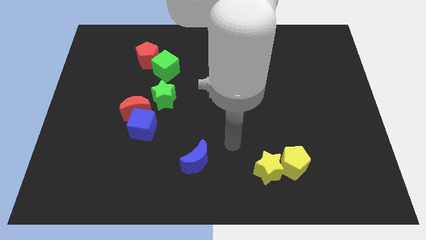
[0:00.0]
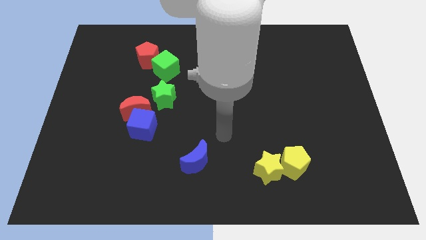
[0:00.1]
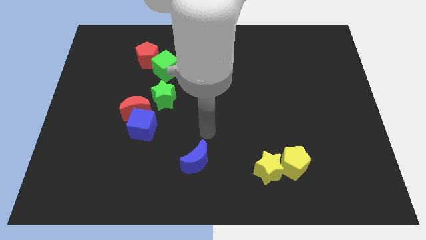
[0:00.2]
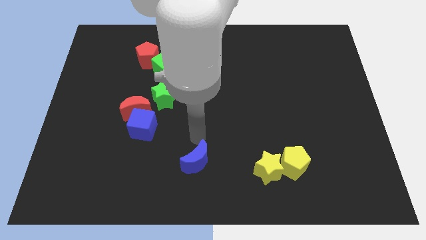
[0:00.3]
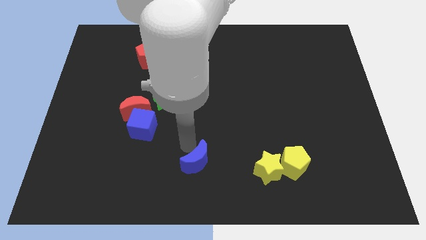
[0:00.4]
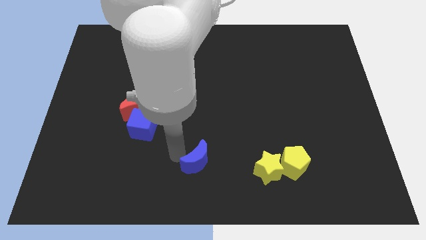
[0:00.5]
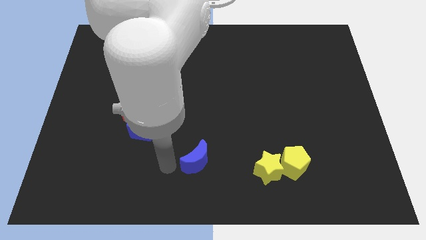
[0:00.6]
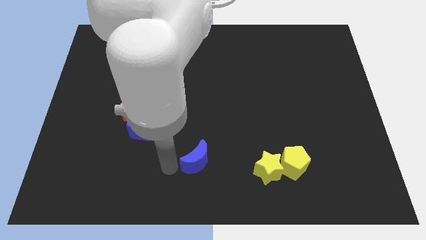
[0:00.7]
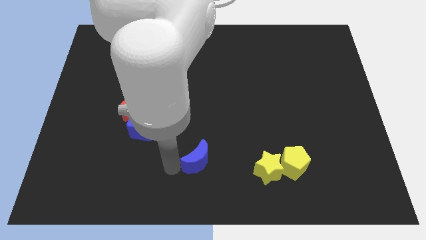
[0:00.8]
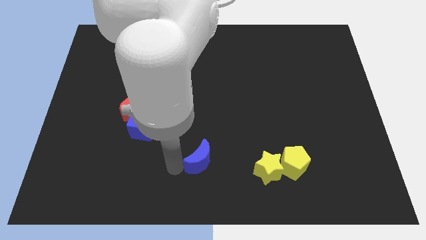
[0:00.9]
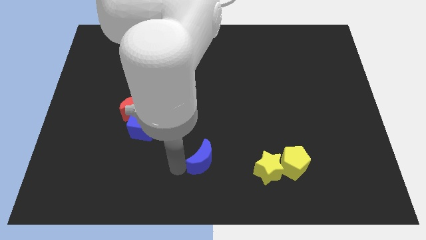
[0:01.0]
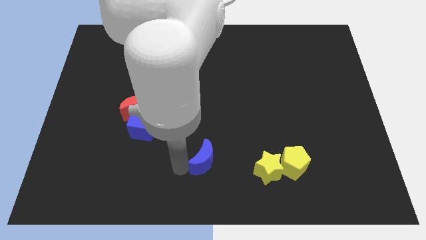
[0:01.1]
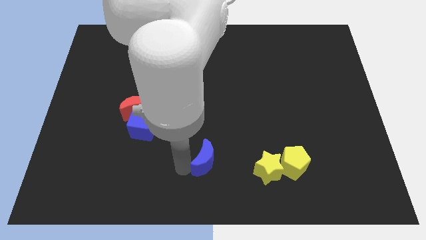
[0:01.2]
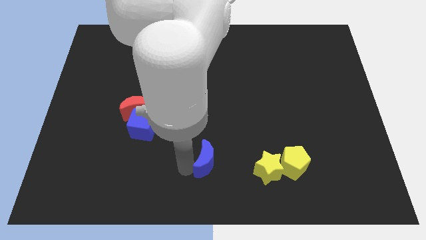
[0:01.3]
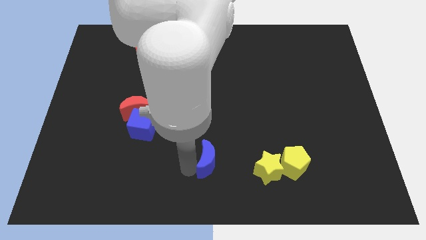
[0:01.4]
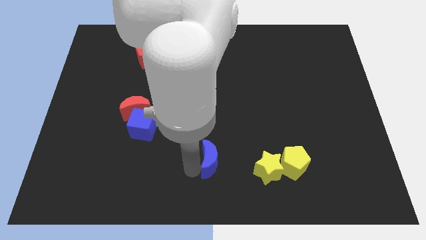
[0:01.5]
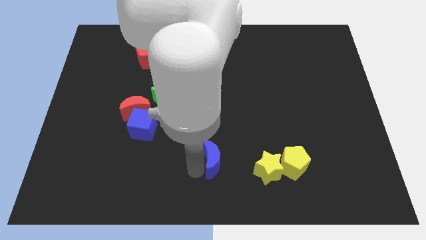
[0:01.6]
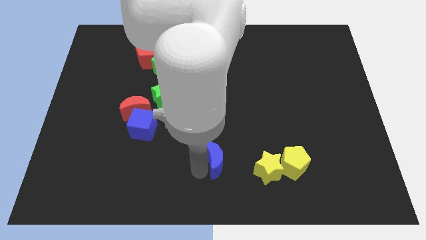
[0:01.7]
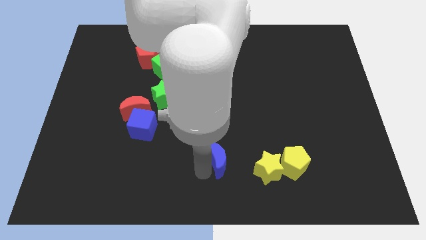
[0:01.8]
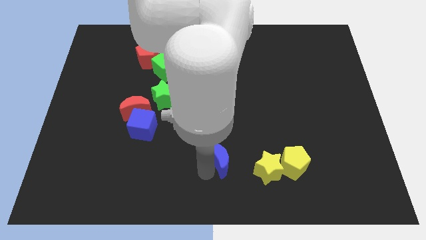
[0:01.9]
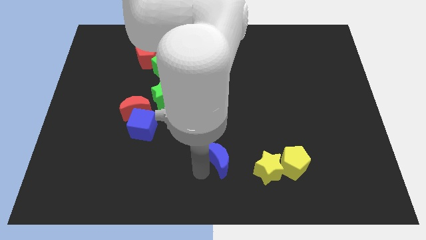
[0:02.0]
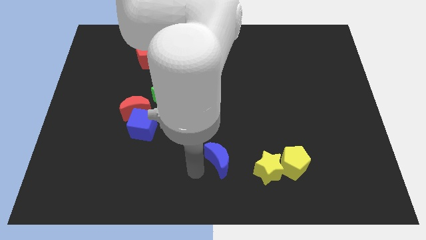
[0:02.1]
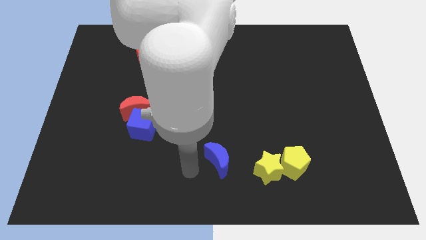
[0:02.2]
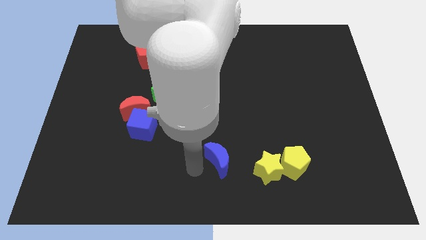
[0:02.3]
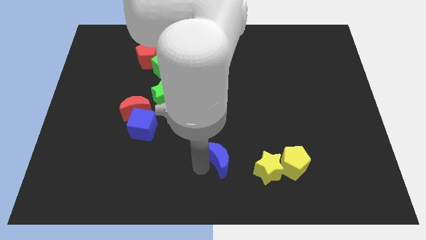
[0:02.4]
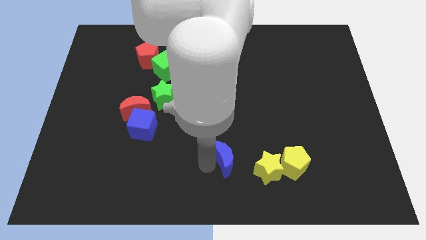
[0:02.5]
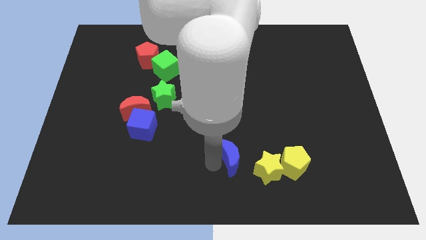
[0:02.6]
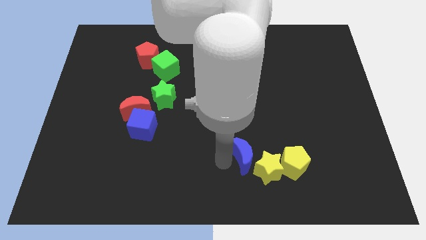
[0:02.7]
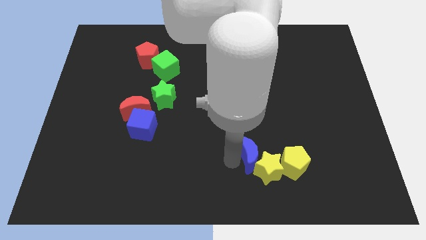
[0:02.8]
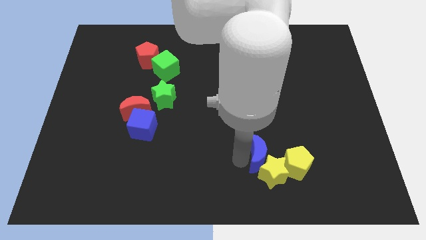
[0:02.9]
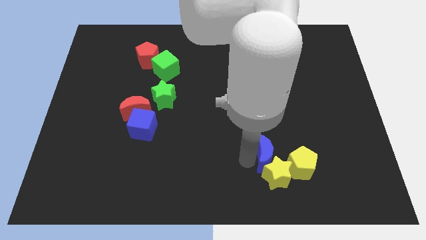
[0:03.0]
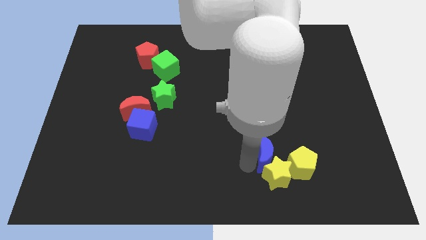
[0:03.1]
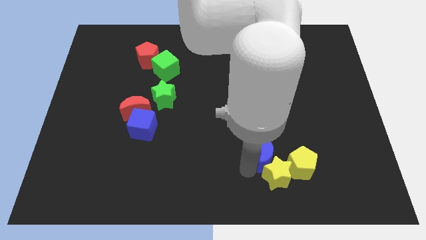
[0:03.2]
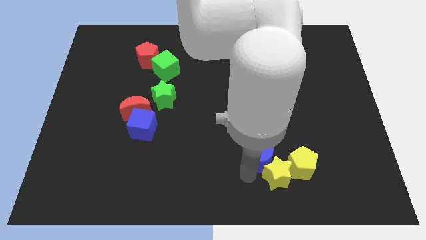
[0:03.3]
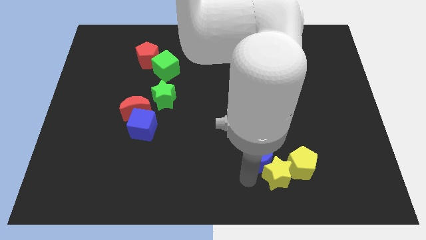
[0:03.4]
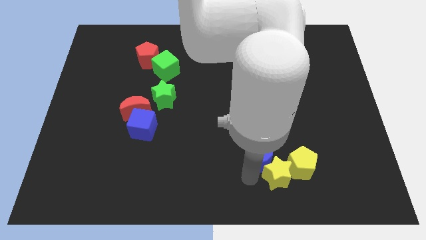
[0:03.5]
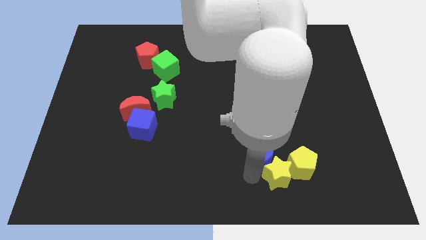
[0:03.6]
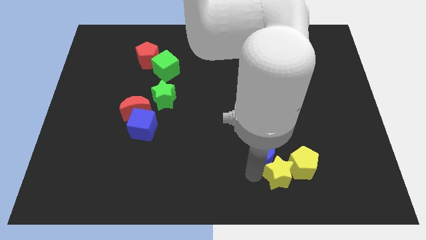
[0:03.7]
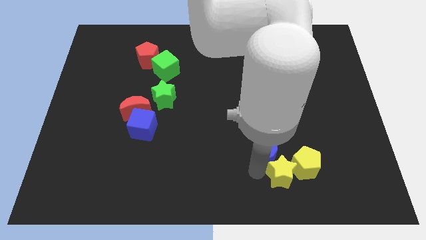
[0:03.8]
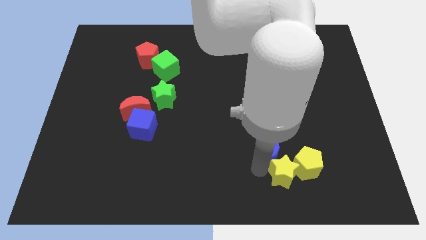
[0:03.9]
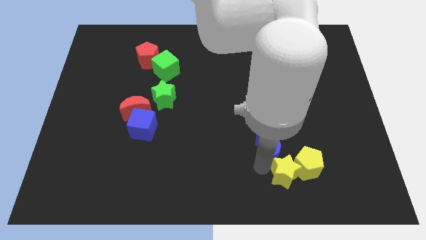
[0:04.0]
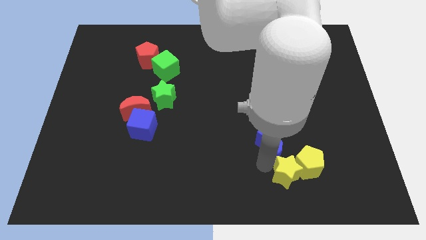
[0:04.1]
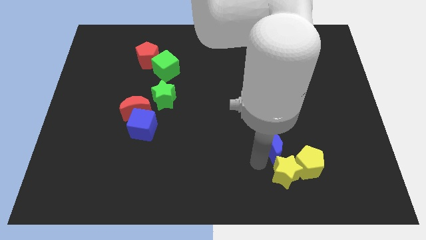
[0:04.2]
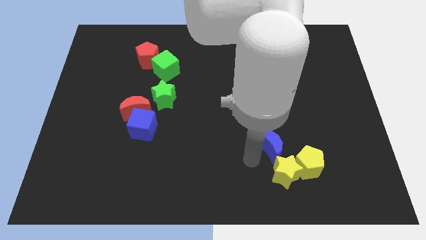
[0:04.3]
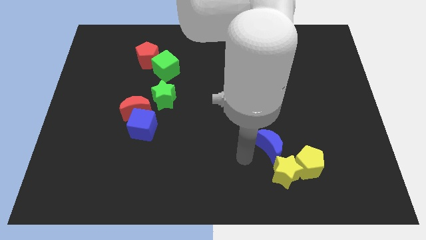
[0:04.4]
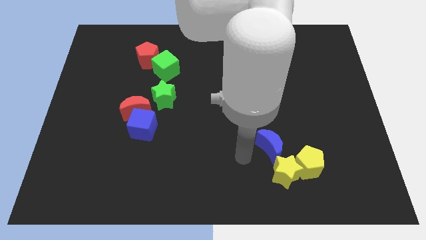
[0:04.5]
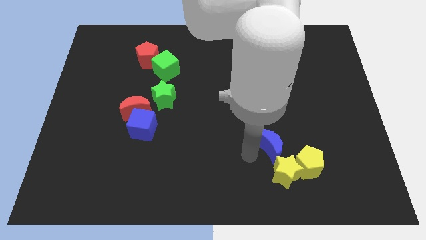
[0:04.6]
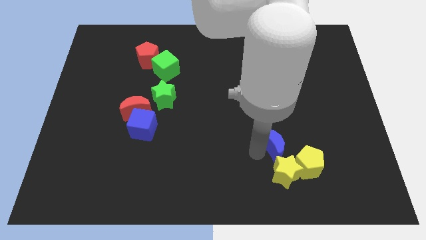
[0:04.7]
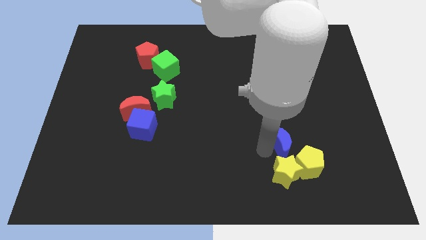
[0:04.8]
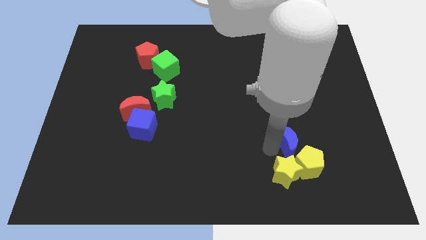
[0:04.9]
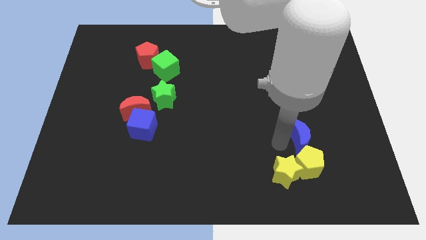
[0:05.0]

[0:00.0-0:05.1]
slide the blue moon to the right

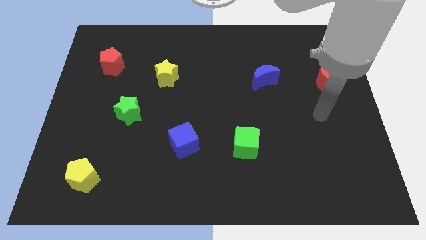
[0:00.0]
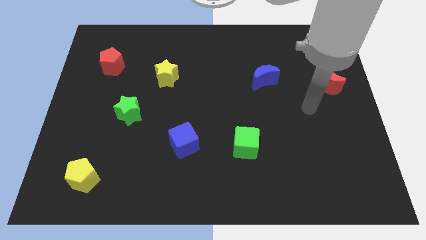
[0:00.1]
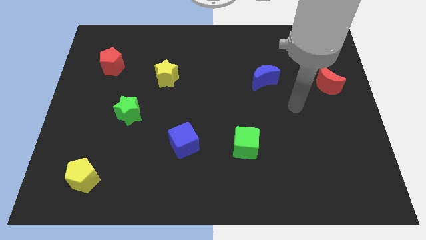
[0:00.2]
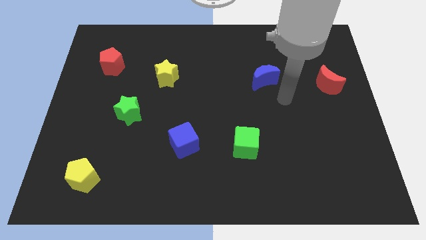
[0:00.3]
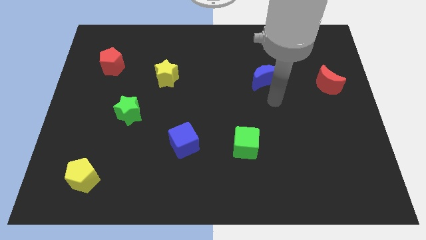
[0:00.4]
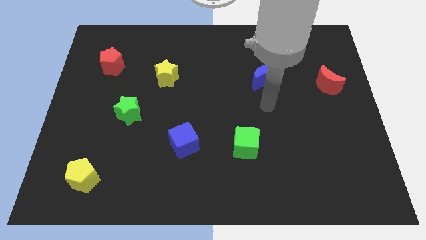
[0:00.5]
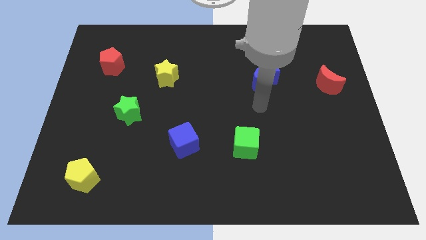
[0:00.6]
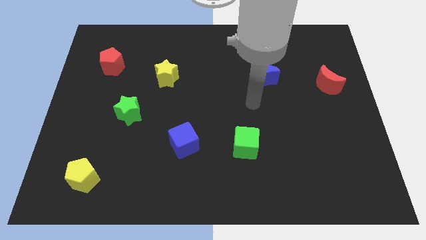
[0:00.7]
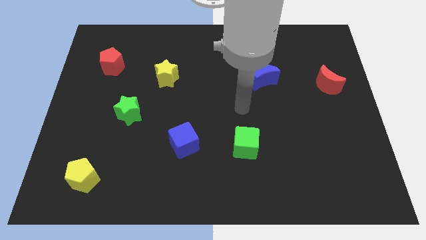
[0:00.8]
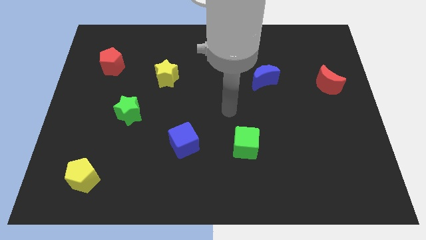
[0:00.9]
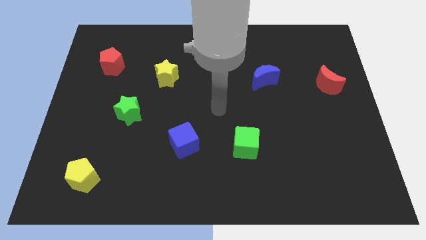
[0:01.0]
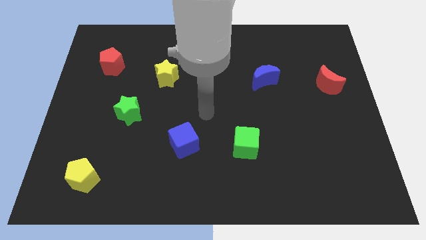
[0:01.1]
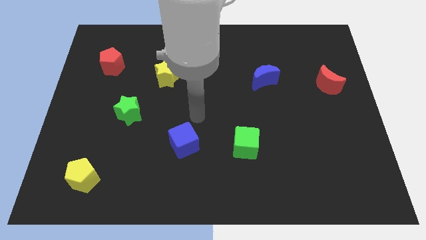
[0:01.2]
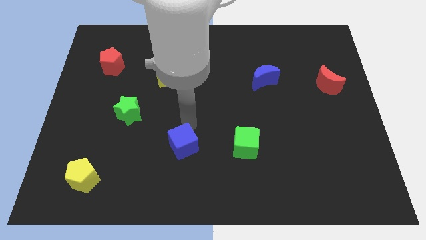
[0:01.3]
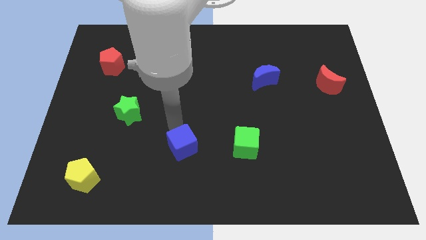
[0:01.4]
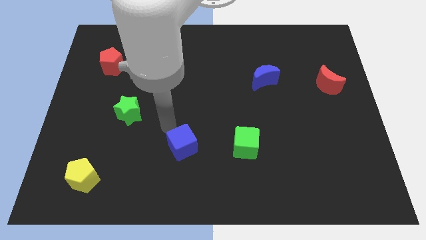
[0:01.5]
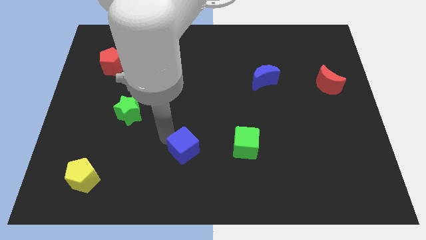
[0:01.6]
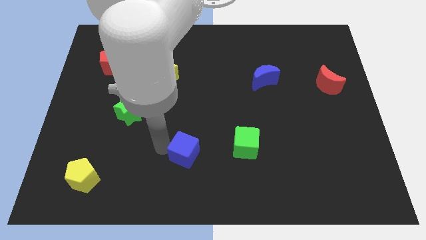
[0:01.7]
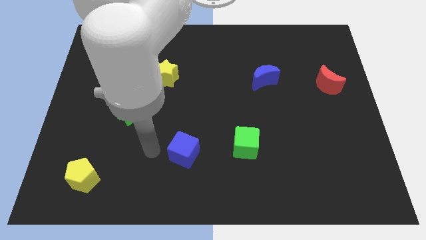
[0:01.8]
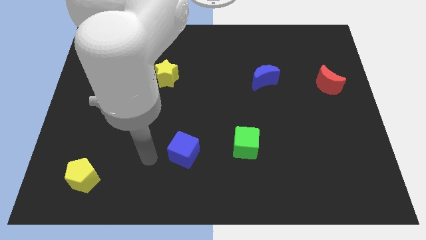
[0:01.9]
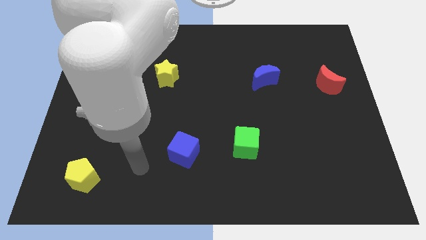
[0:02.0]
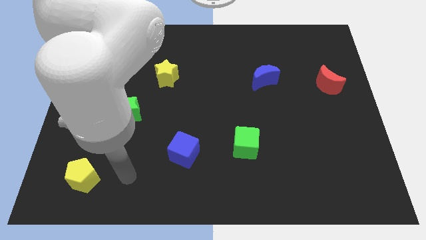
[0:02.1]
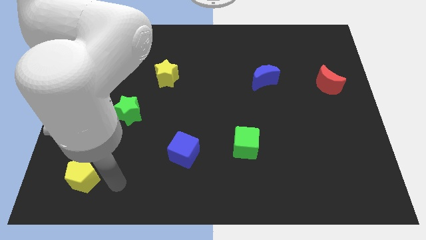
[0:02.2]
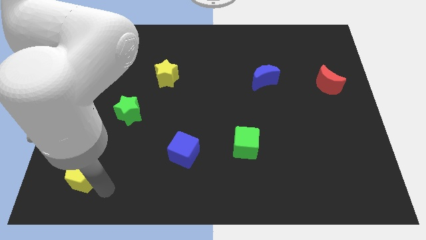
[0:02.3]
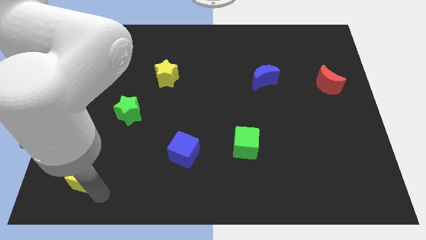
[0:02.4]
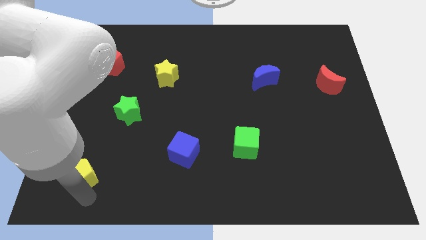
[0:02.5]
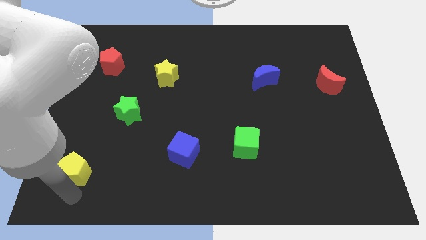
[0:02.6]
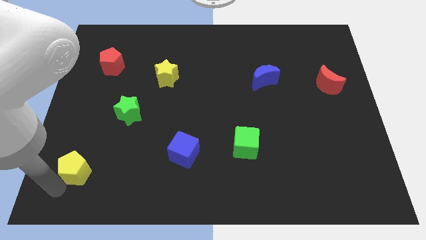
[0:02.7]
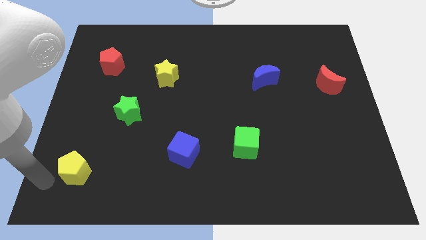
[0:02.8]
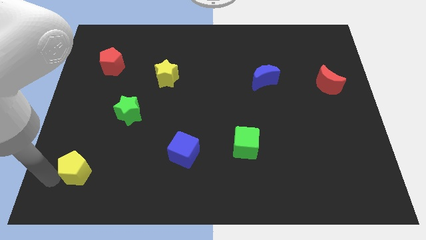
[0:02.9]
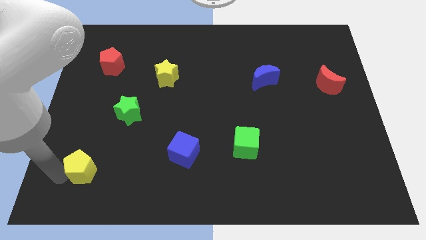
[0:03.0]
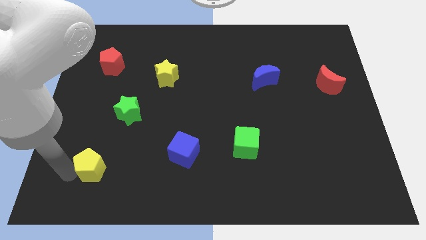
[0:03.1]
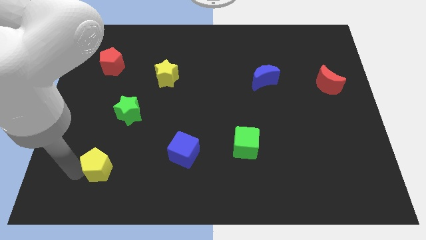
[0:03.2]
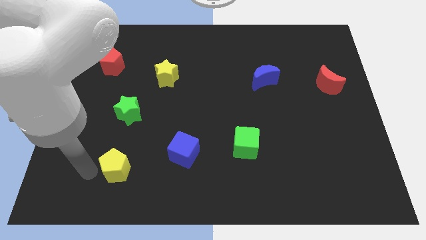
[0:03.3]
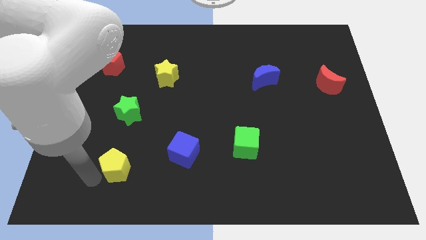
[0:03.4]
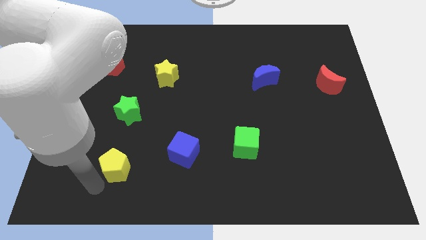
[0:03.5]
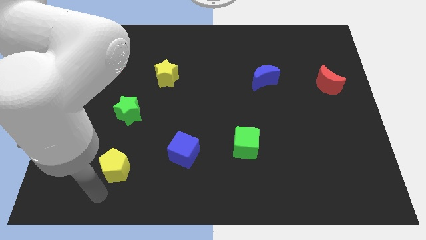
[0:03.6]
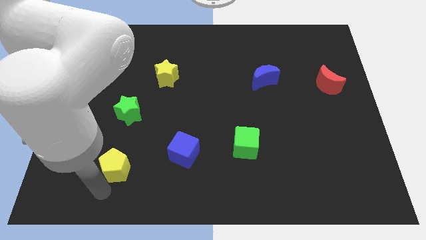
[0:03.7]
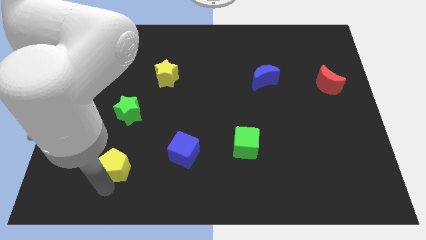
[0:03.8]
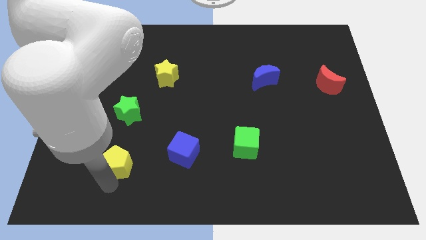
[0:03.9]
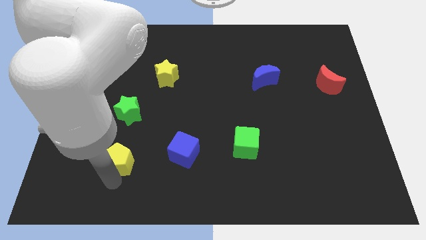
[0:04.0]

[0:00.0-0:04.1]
slightly slide the yellow pentagon up and right
